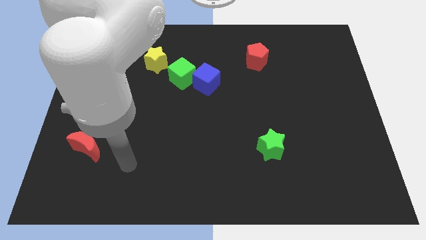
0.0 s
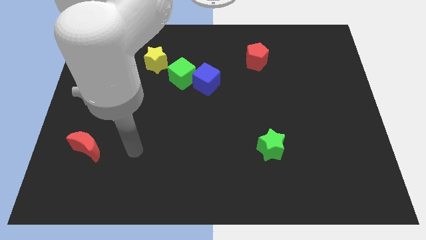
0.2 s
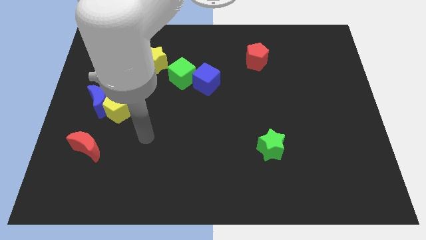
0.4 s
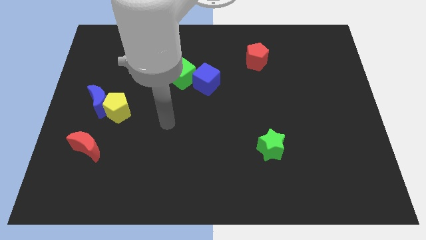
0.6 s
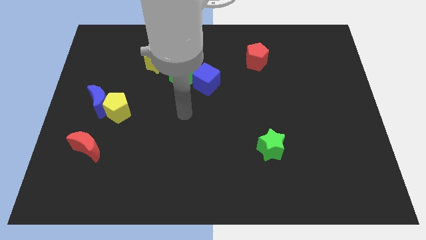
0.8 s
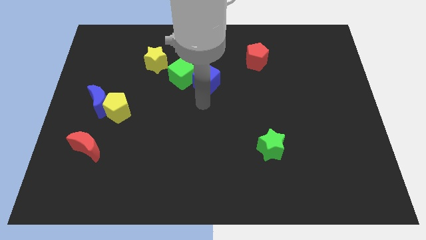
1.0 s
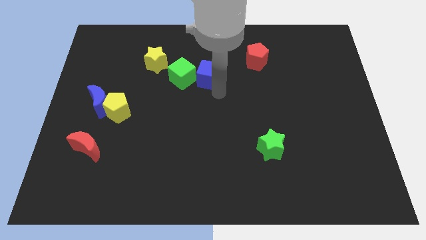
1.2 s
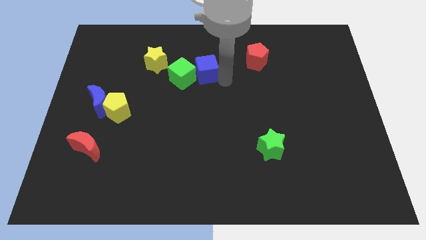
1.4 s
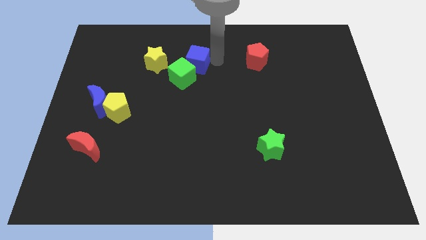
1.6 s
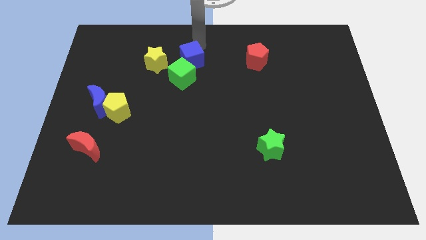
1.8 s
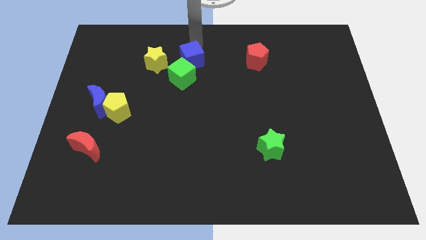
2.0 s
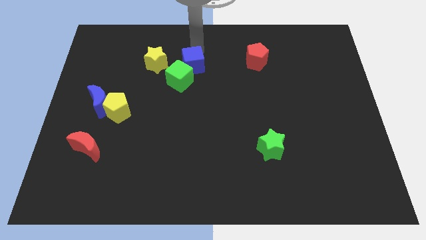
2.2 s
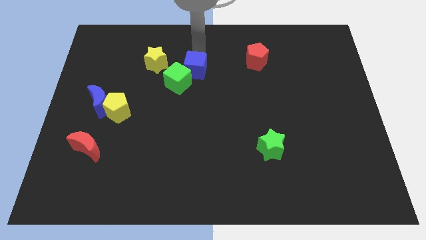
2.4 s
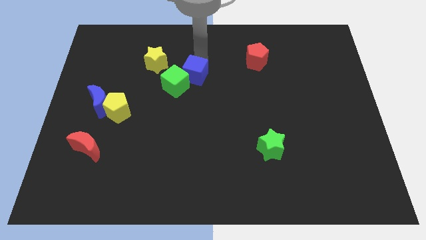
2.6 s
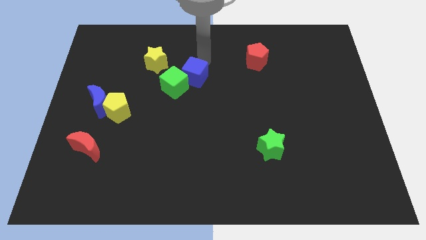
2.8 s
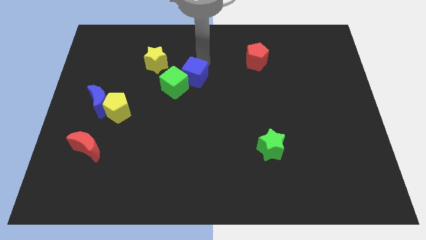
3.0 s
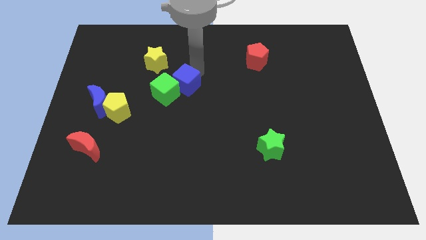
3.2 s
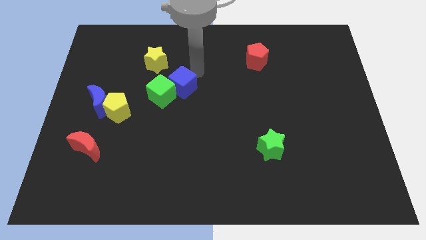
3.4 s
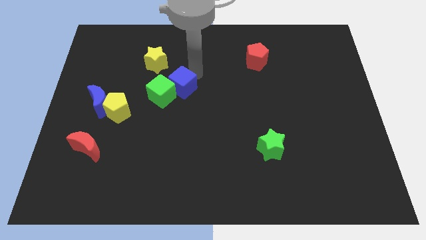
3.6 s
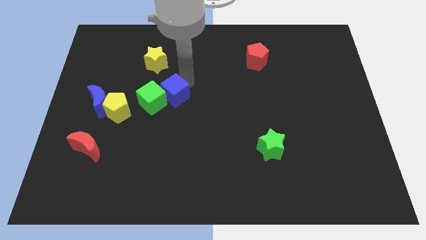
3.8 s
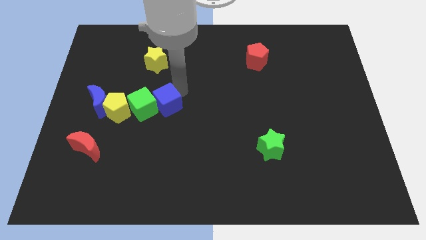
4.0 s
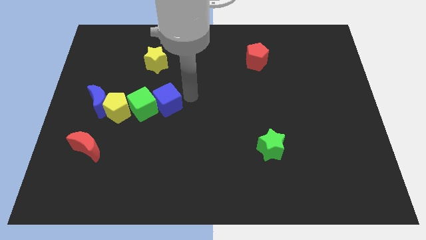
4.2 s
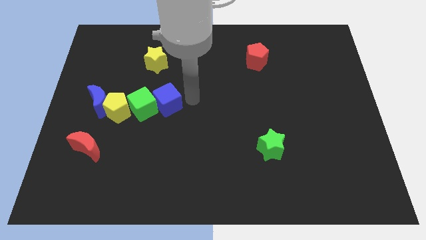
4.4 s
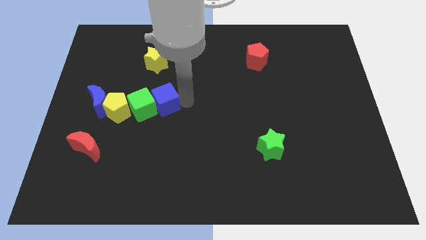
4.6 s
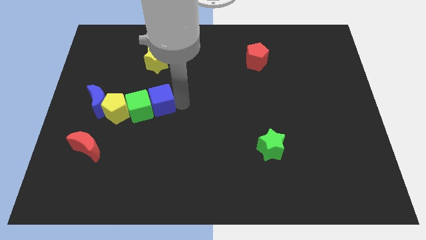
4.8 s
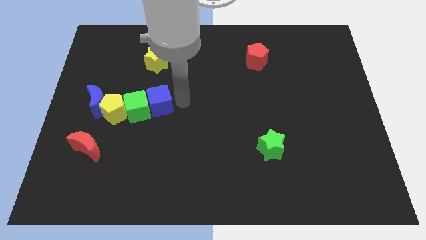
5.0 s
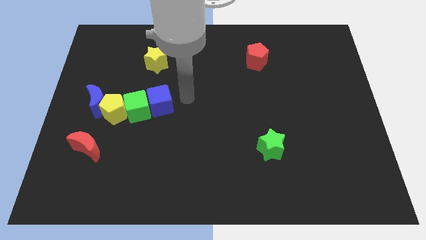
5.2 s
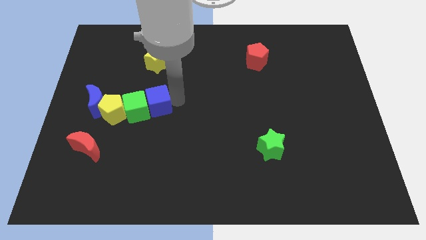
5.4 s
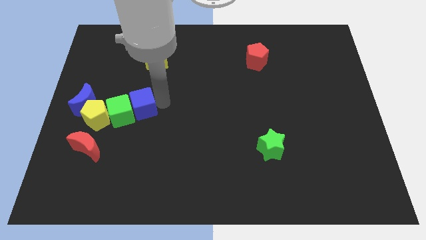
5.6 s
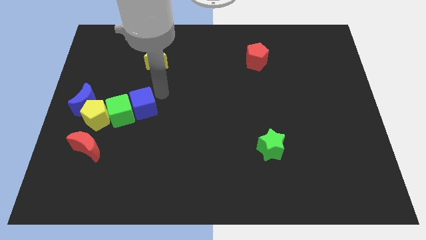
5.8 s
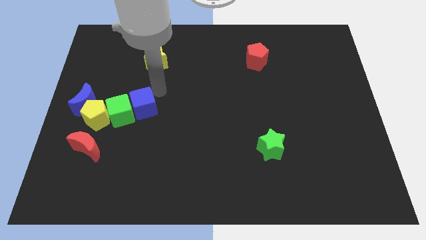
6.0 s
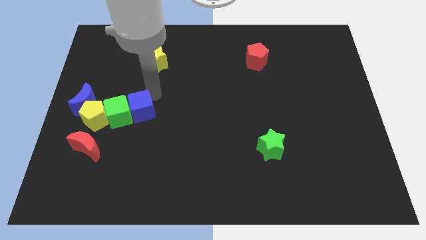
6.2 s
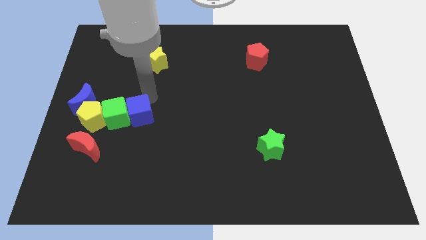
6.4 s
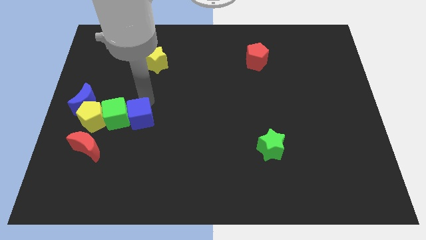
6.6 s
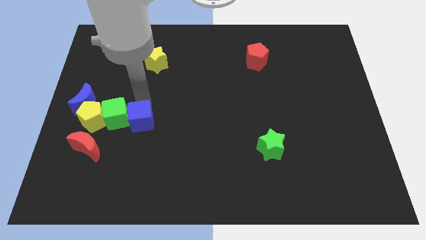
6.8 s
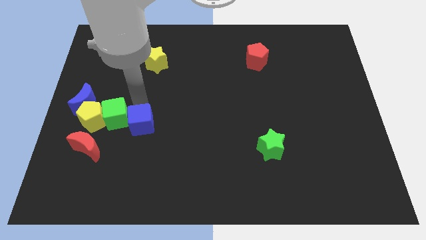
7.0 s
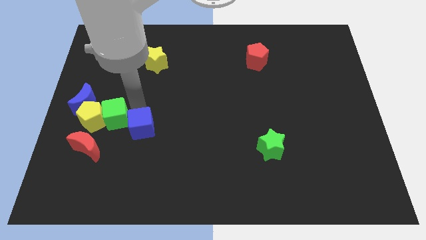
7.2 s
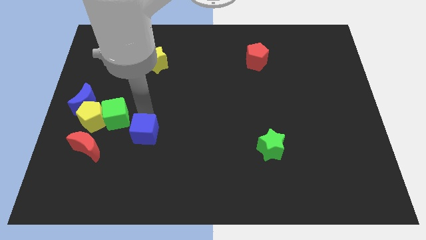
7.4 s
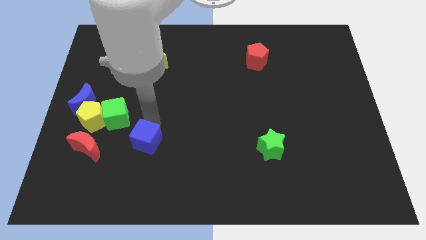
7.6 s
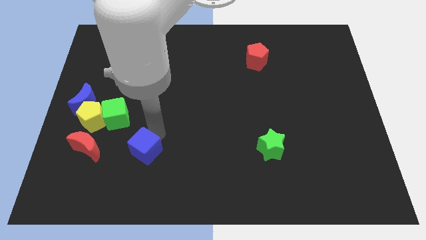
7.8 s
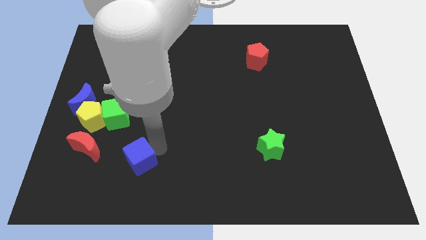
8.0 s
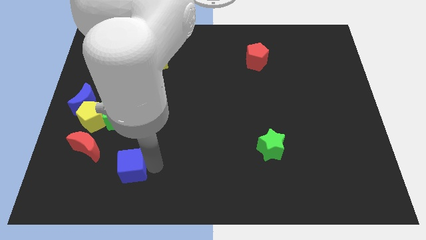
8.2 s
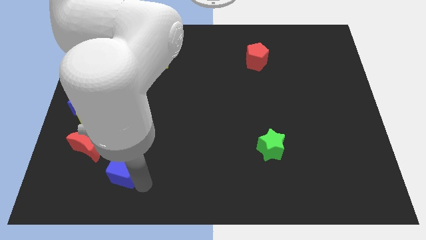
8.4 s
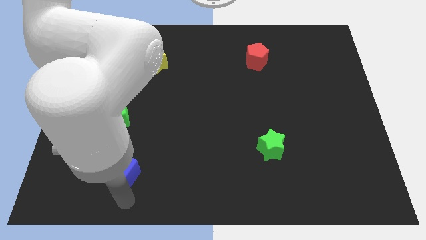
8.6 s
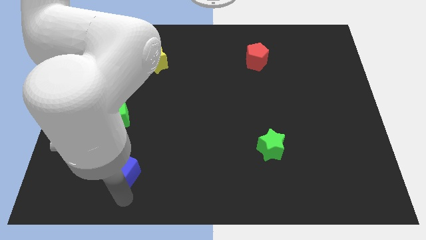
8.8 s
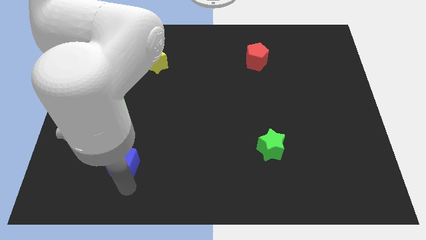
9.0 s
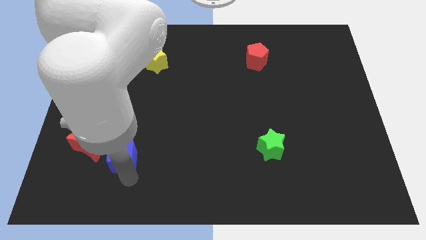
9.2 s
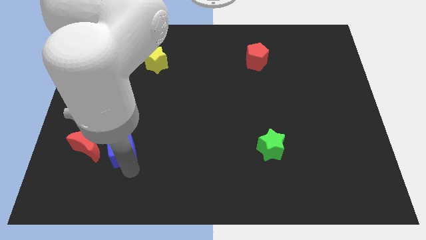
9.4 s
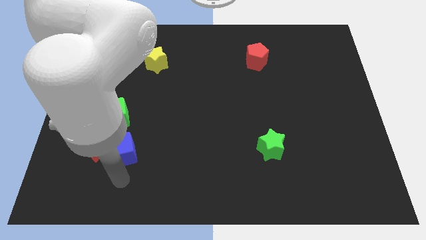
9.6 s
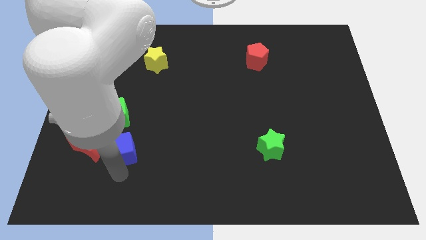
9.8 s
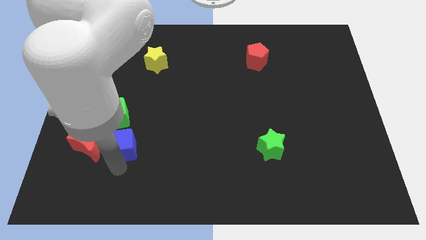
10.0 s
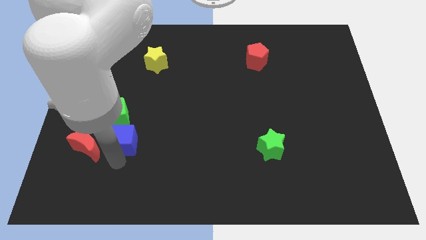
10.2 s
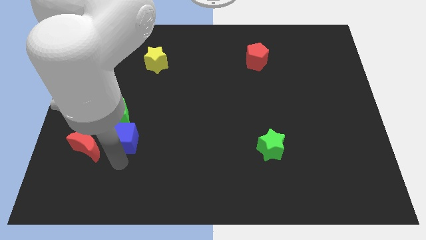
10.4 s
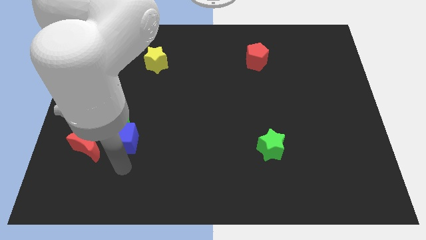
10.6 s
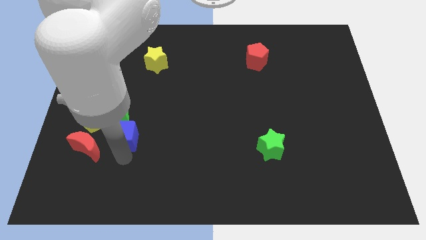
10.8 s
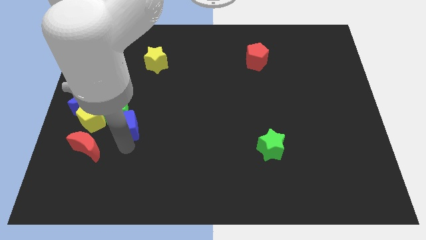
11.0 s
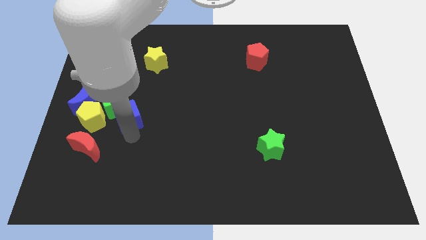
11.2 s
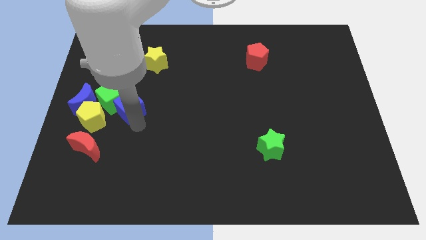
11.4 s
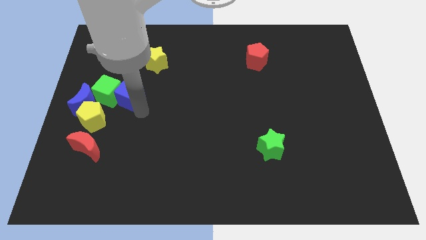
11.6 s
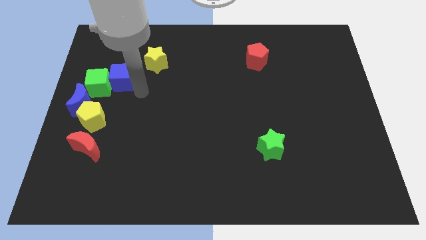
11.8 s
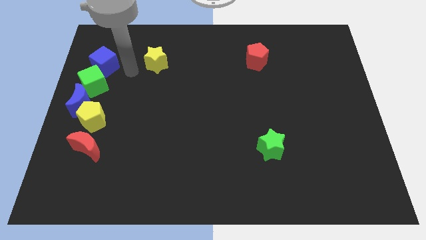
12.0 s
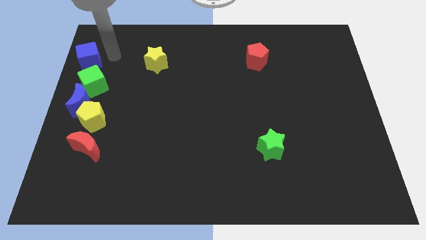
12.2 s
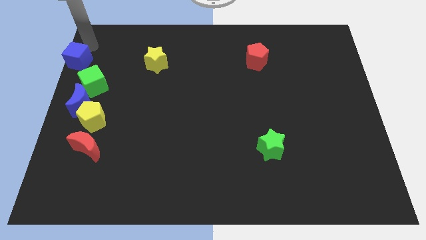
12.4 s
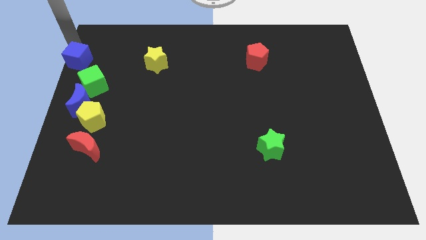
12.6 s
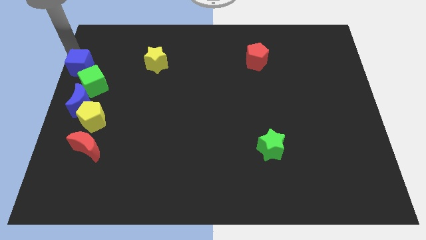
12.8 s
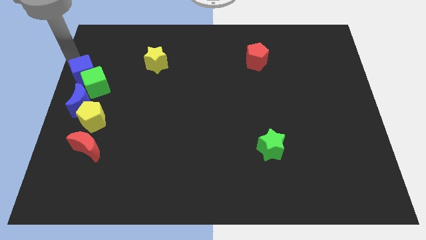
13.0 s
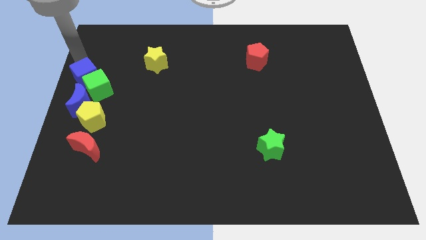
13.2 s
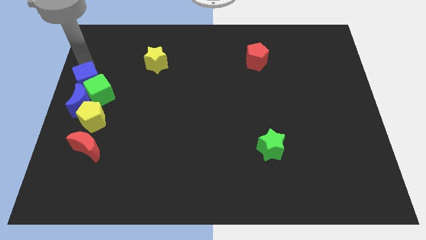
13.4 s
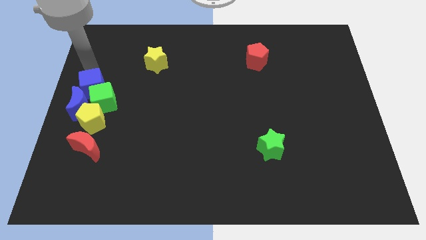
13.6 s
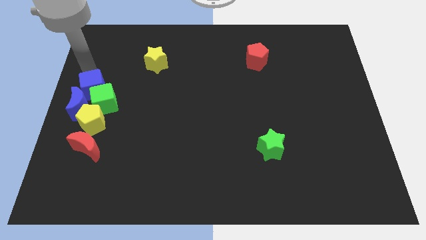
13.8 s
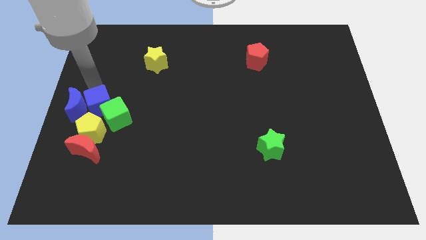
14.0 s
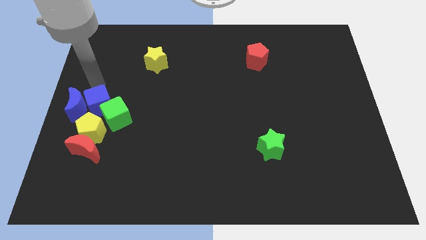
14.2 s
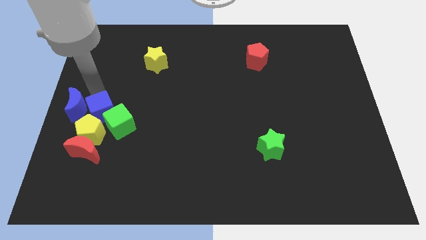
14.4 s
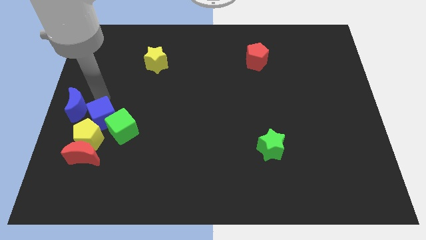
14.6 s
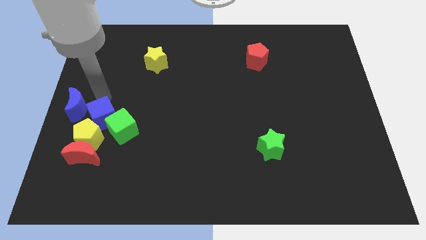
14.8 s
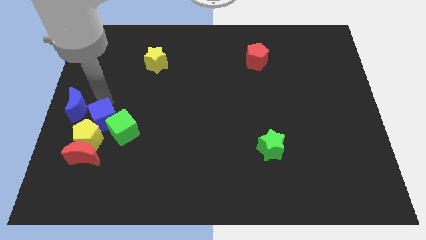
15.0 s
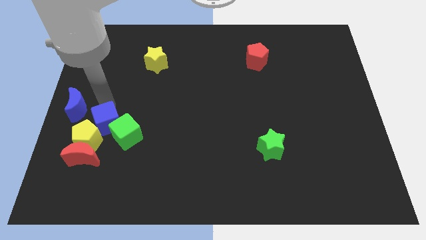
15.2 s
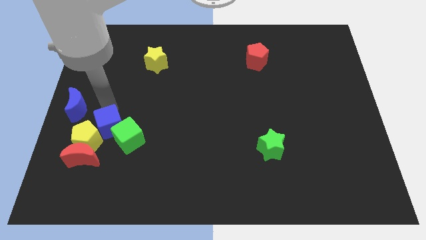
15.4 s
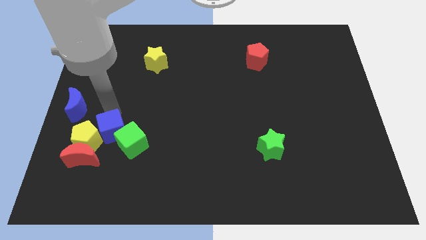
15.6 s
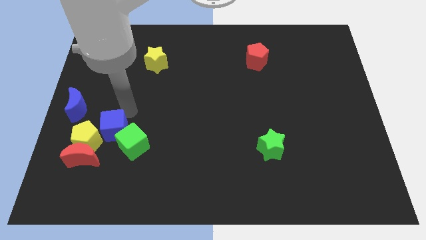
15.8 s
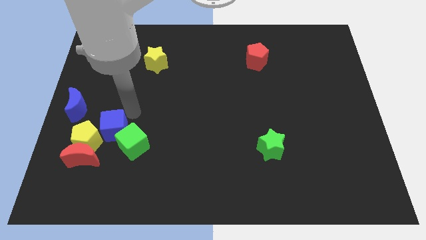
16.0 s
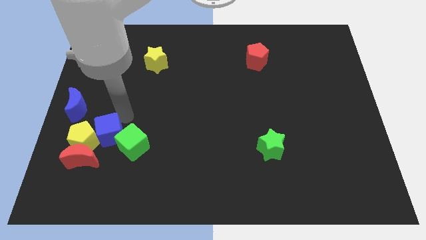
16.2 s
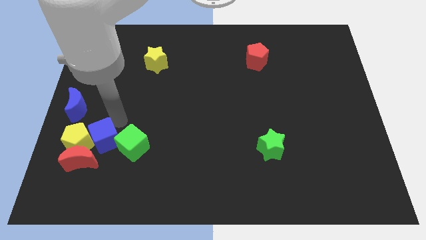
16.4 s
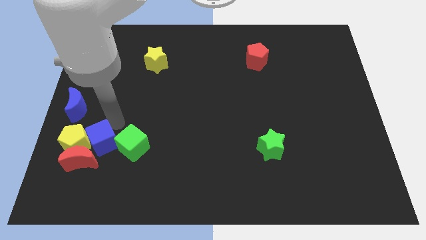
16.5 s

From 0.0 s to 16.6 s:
move the blue cube close to the red moon
